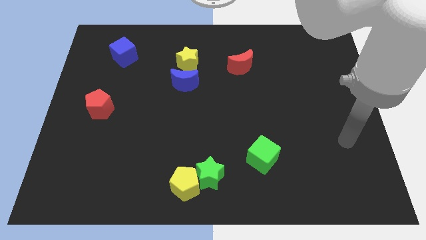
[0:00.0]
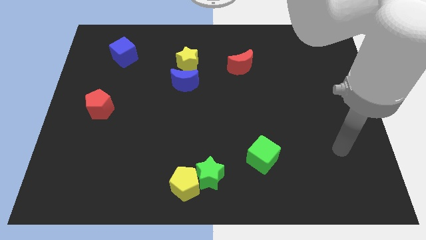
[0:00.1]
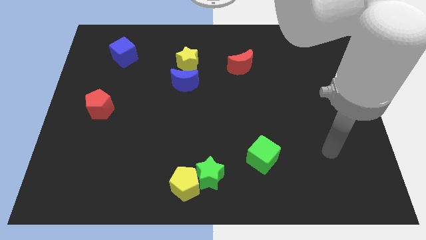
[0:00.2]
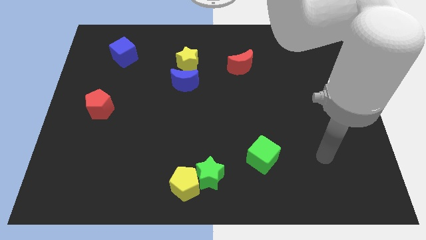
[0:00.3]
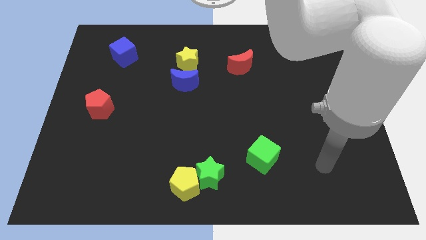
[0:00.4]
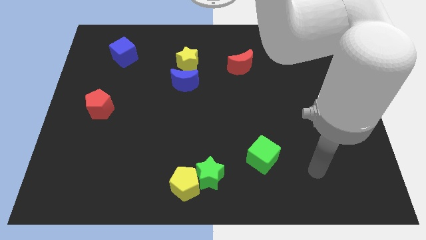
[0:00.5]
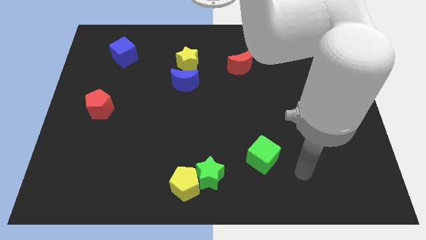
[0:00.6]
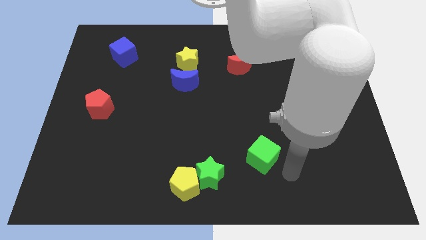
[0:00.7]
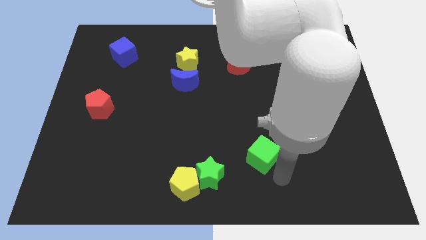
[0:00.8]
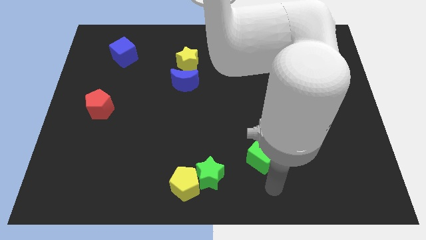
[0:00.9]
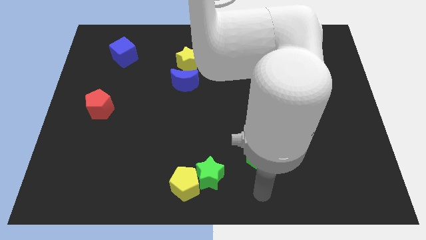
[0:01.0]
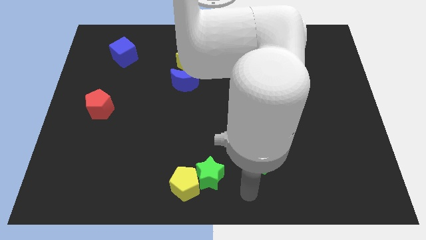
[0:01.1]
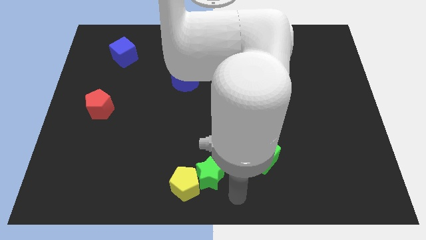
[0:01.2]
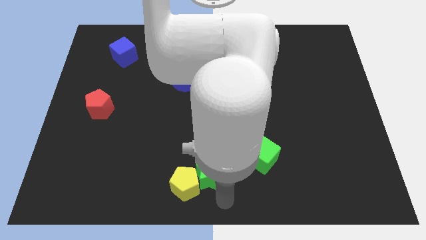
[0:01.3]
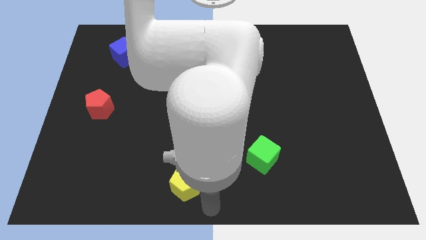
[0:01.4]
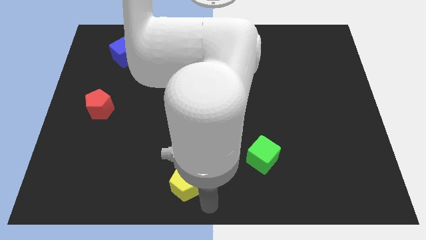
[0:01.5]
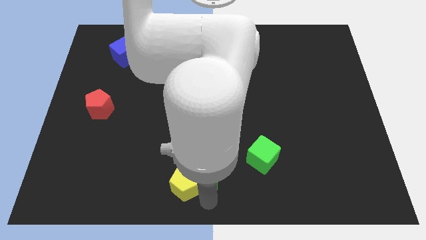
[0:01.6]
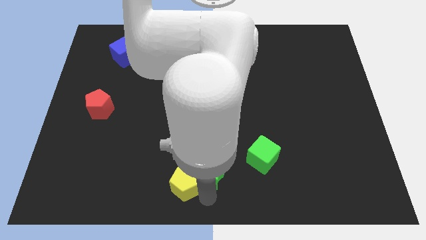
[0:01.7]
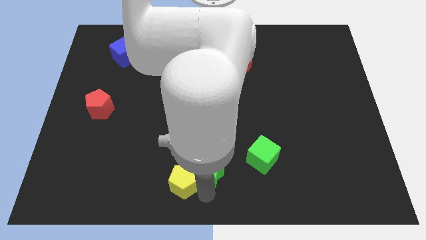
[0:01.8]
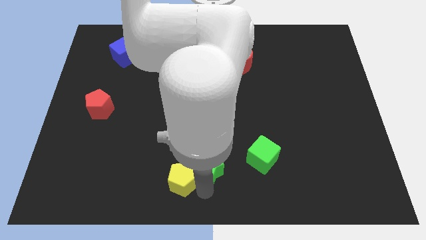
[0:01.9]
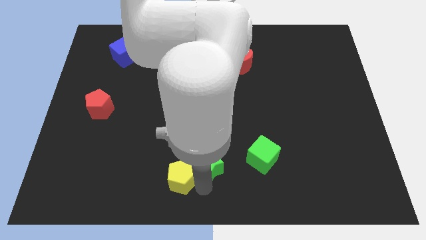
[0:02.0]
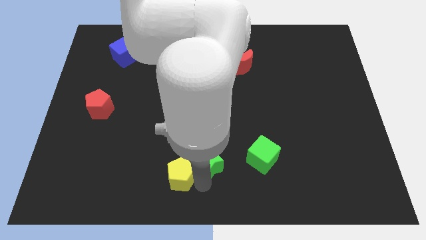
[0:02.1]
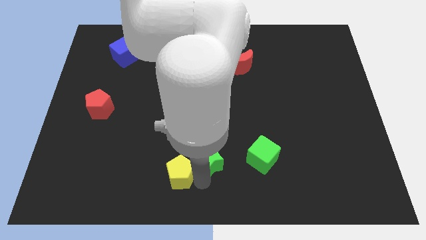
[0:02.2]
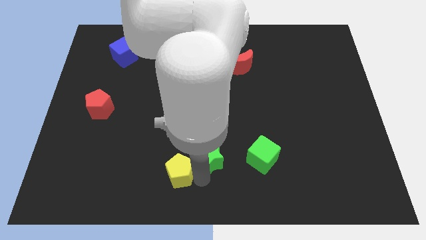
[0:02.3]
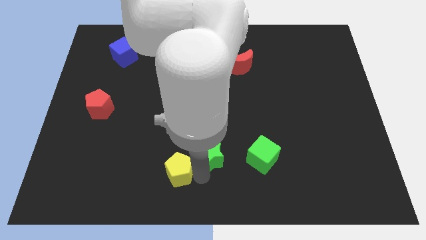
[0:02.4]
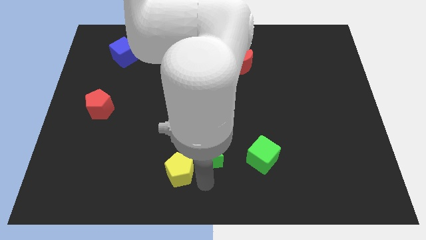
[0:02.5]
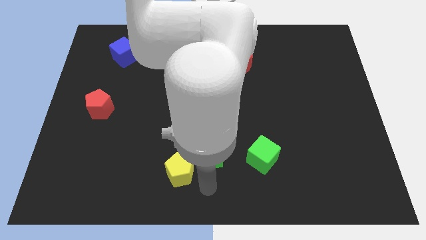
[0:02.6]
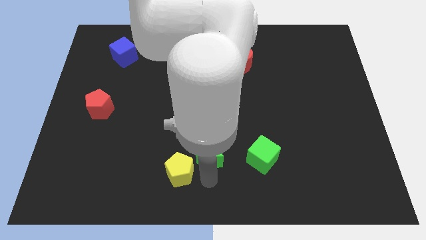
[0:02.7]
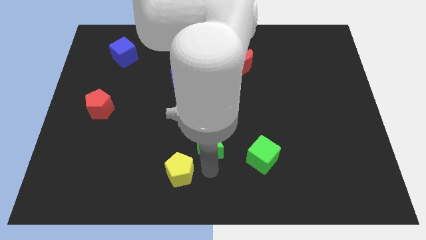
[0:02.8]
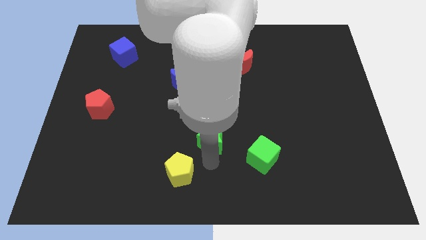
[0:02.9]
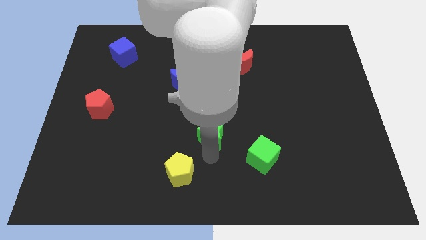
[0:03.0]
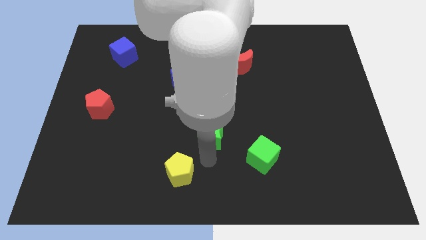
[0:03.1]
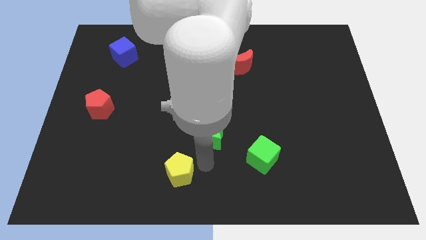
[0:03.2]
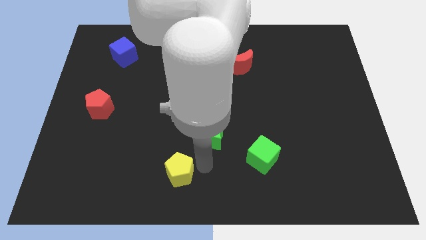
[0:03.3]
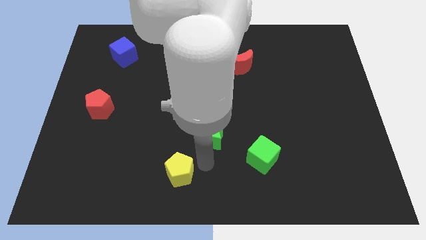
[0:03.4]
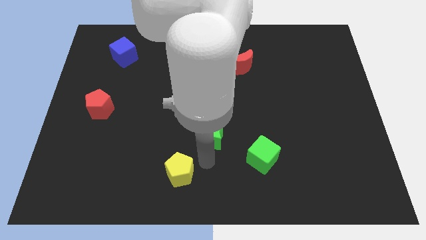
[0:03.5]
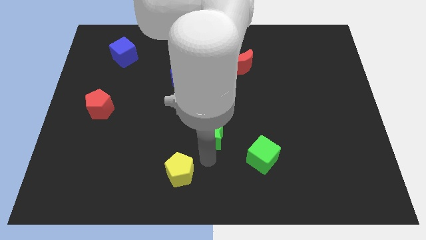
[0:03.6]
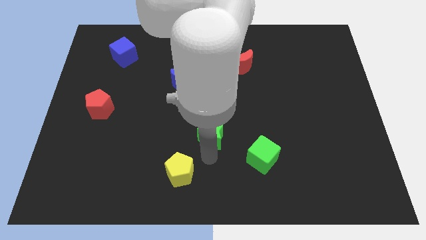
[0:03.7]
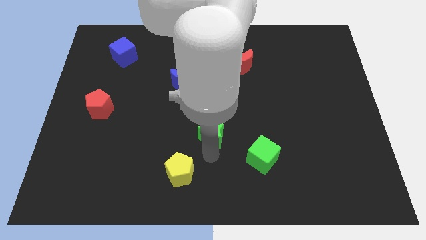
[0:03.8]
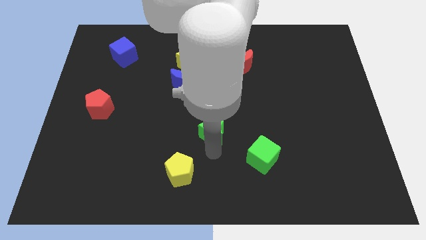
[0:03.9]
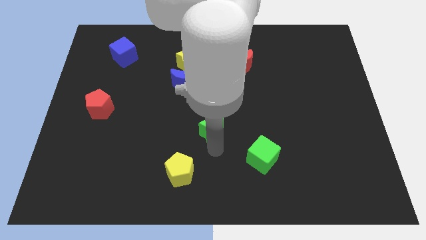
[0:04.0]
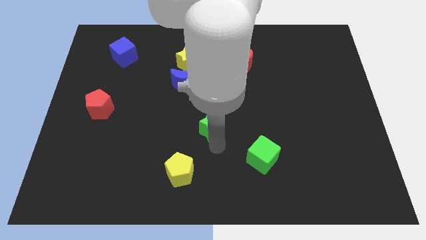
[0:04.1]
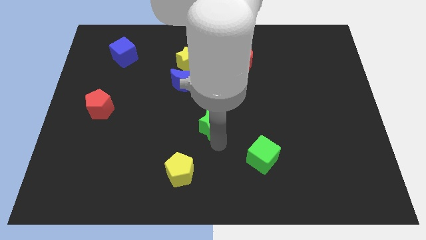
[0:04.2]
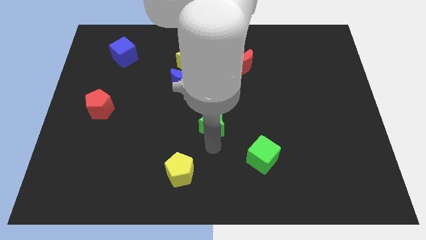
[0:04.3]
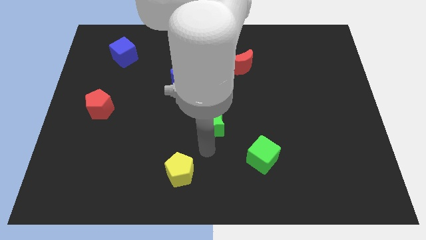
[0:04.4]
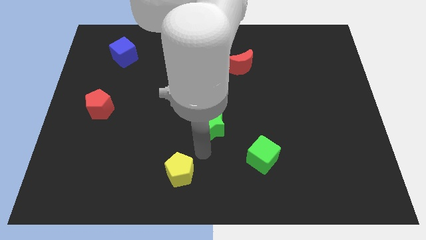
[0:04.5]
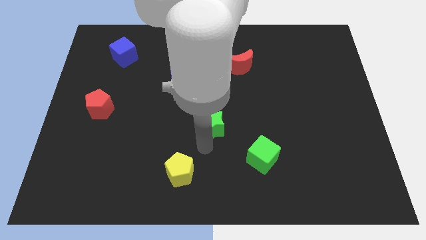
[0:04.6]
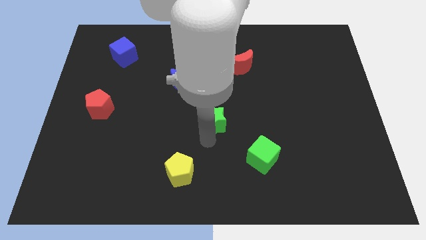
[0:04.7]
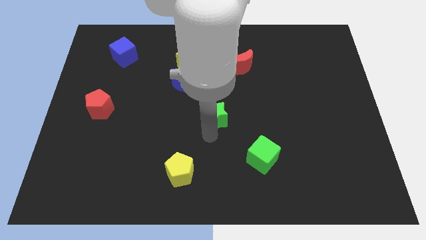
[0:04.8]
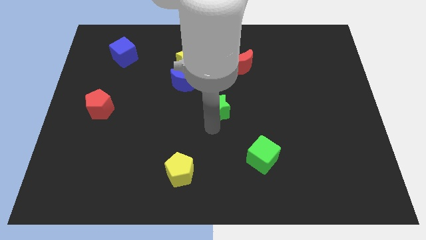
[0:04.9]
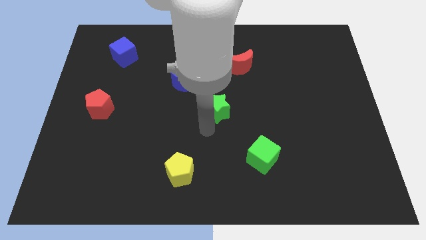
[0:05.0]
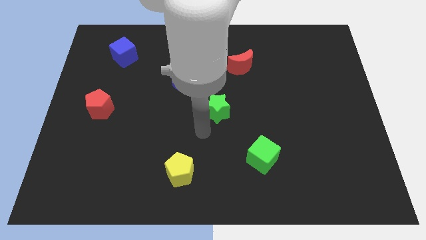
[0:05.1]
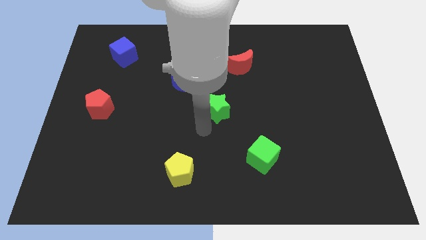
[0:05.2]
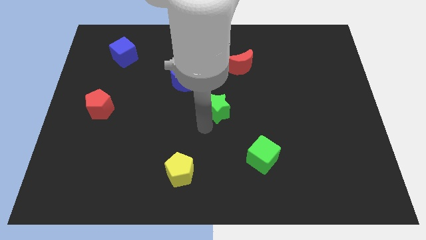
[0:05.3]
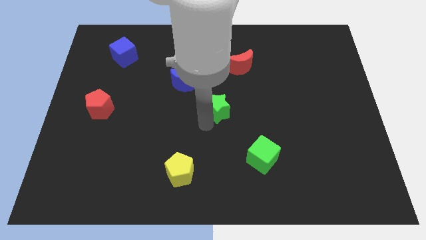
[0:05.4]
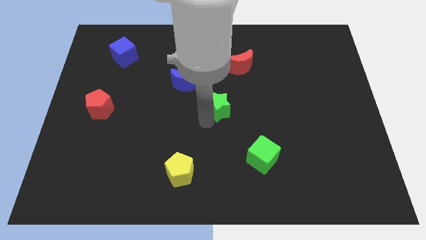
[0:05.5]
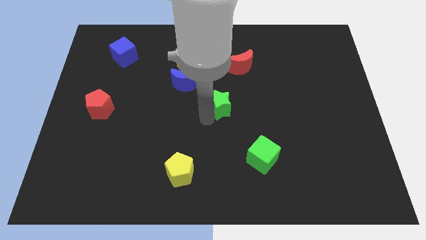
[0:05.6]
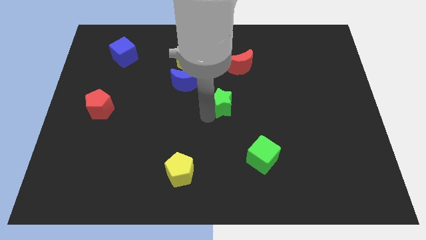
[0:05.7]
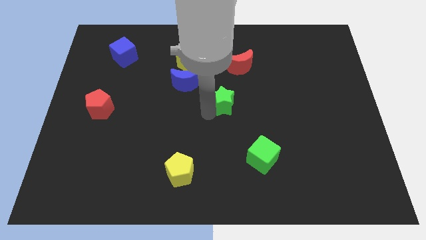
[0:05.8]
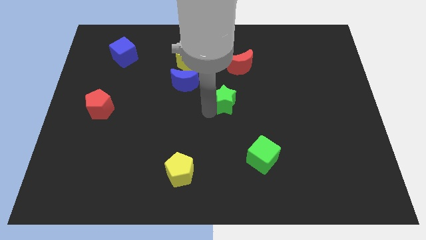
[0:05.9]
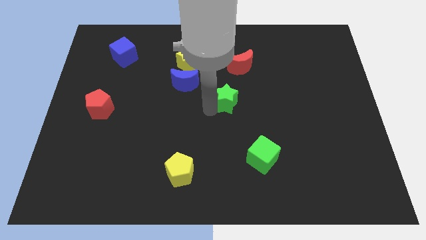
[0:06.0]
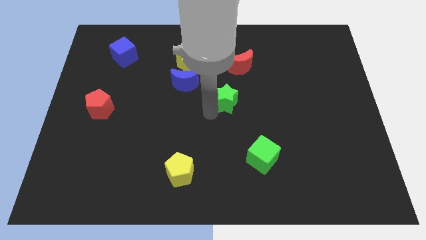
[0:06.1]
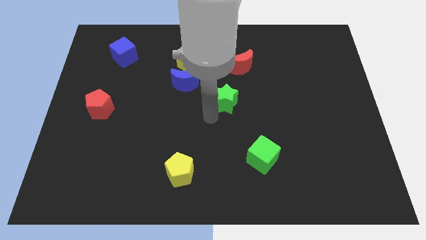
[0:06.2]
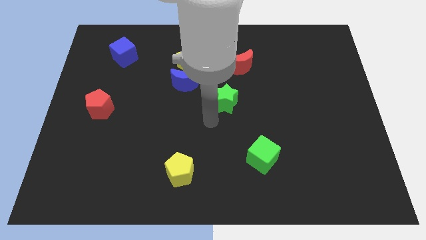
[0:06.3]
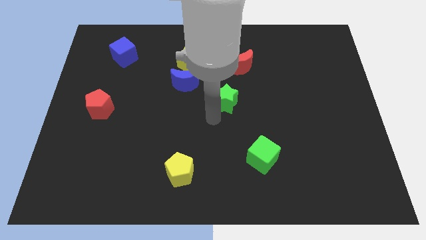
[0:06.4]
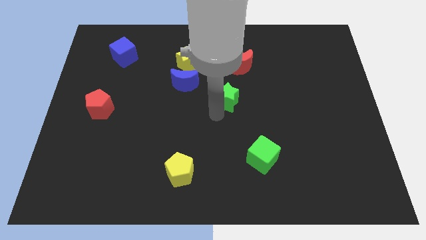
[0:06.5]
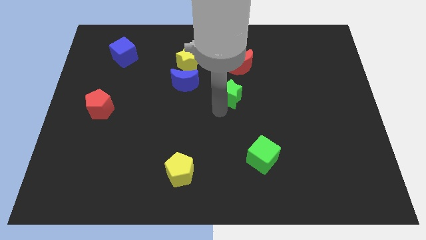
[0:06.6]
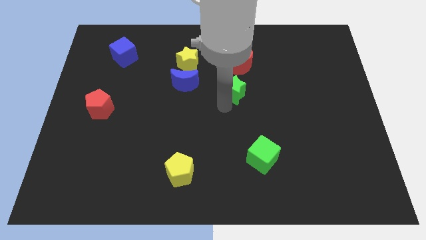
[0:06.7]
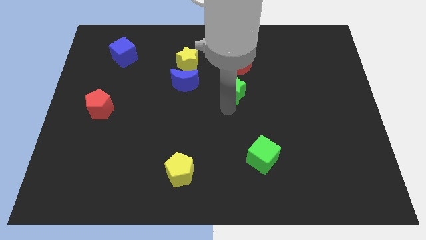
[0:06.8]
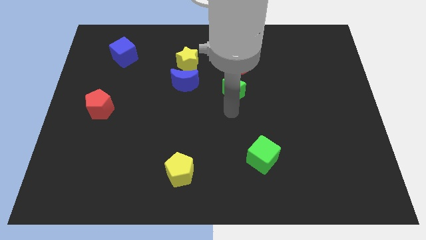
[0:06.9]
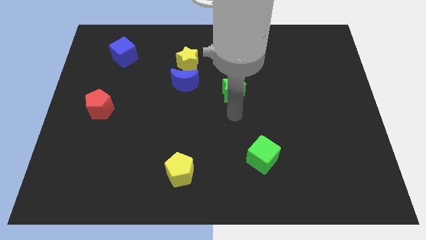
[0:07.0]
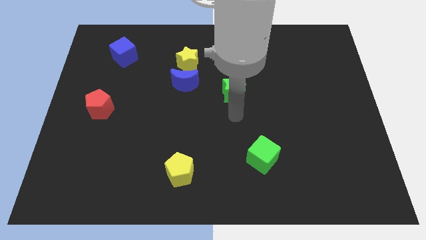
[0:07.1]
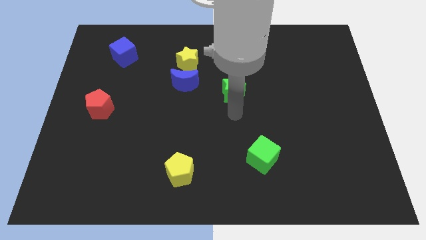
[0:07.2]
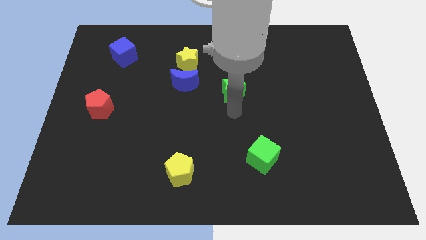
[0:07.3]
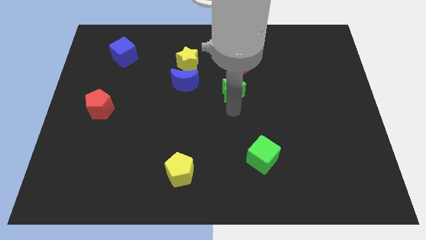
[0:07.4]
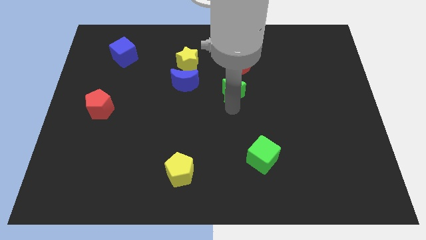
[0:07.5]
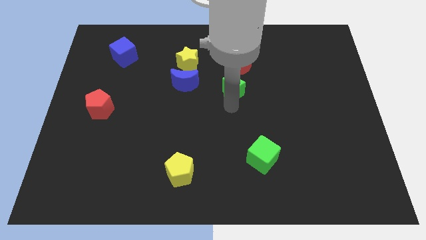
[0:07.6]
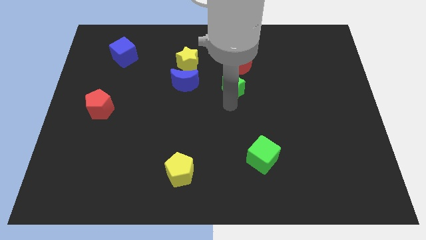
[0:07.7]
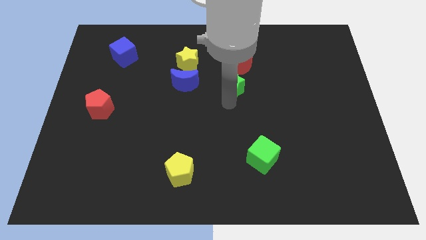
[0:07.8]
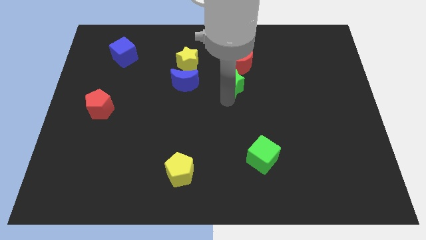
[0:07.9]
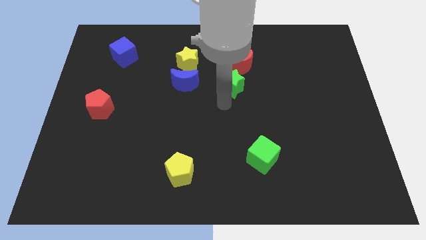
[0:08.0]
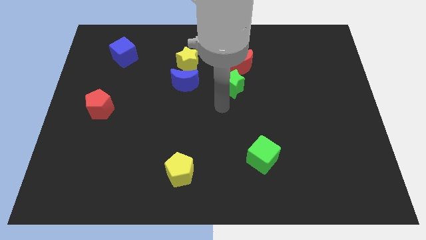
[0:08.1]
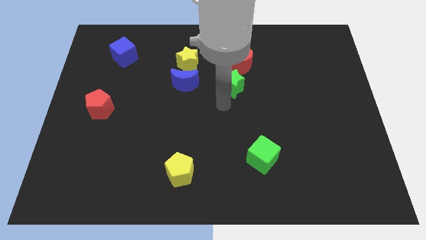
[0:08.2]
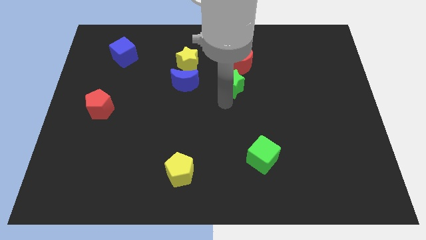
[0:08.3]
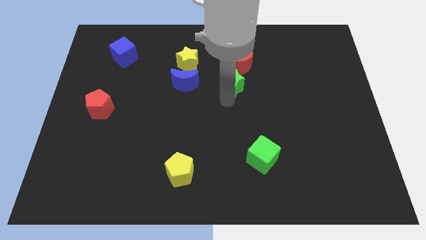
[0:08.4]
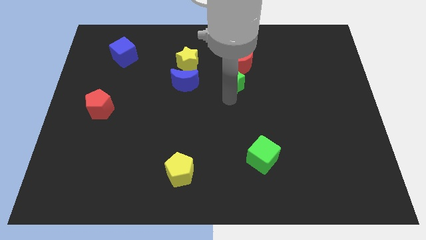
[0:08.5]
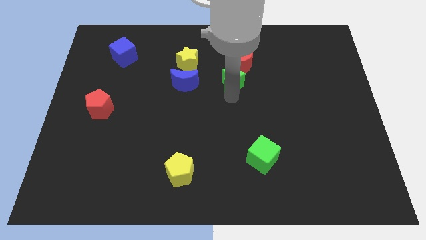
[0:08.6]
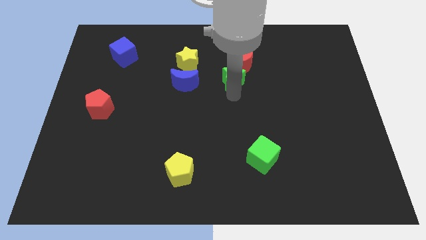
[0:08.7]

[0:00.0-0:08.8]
move the green star to the red moon
